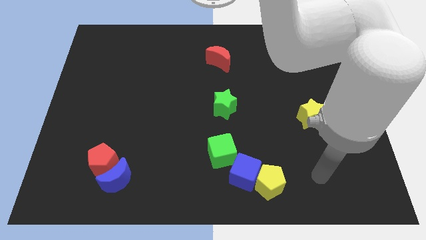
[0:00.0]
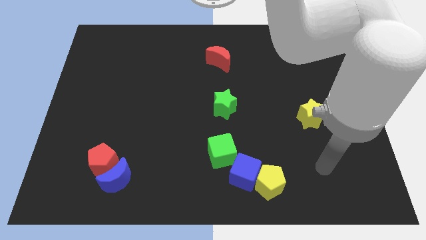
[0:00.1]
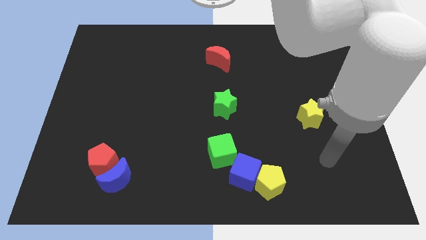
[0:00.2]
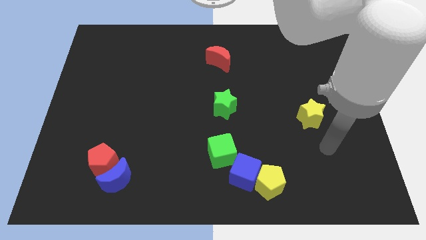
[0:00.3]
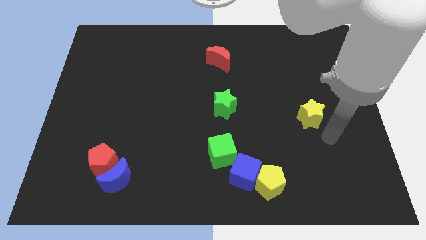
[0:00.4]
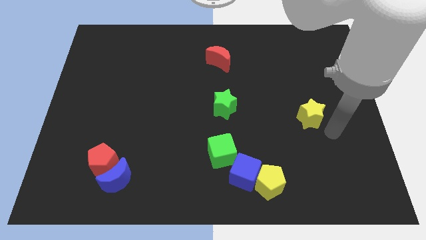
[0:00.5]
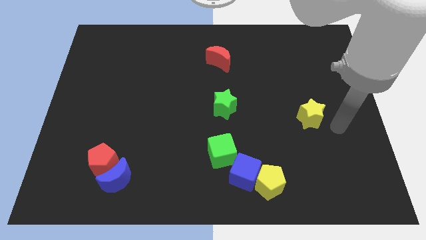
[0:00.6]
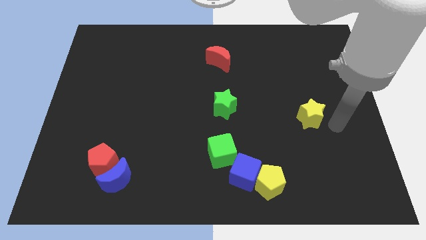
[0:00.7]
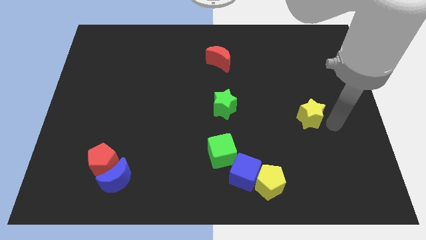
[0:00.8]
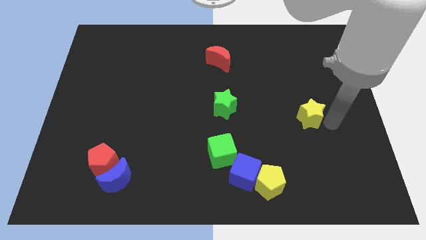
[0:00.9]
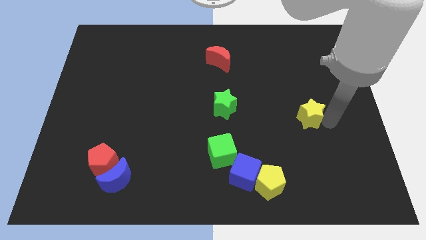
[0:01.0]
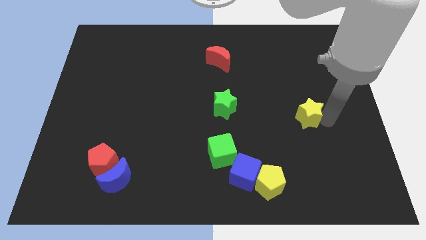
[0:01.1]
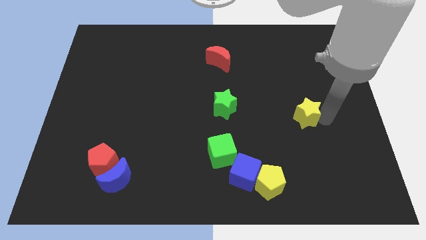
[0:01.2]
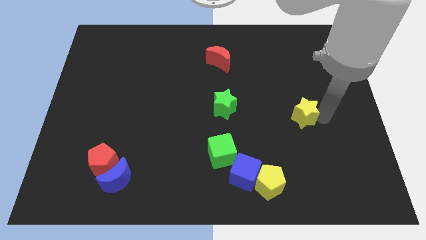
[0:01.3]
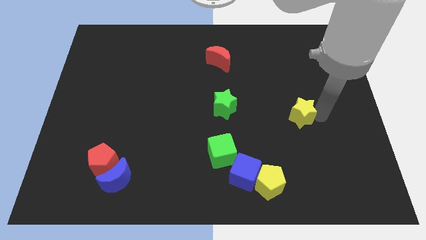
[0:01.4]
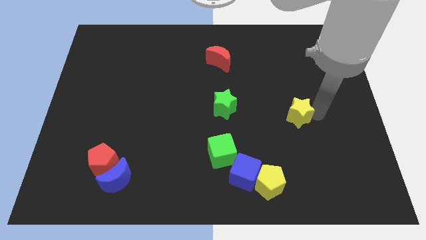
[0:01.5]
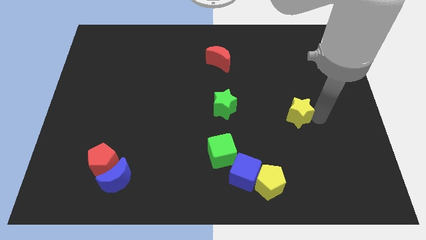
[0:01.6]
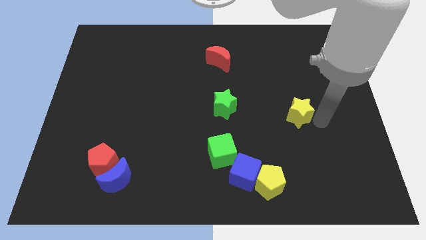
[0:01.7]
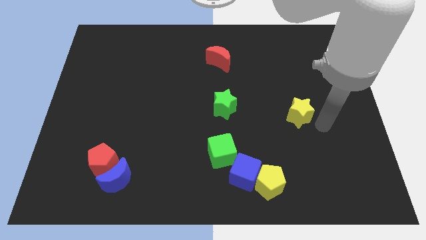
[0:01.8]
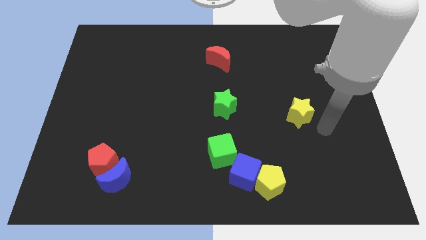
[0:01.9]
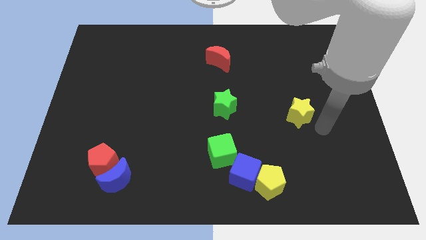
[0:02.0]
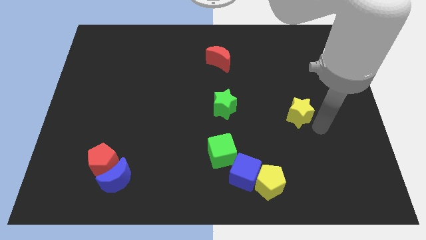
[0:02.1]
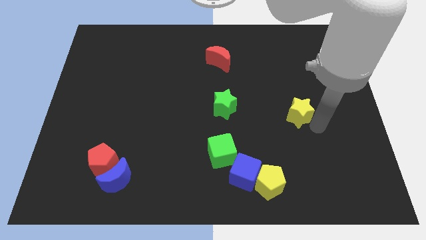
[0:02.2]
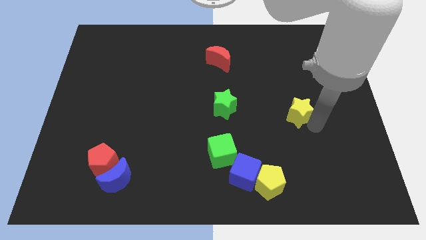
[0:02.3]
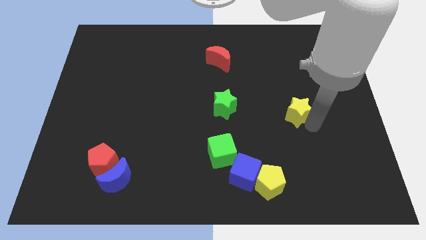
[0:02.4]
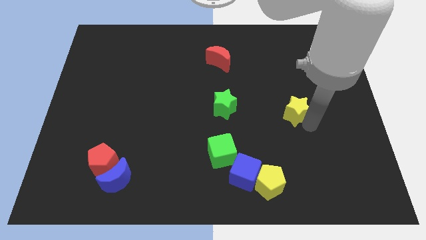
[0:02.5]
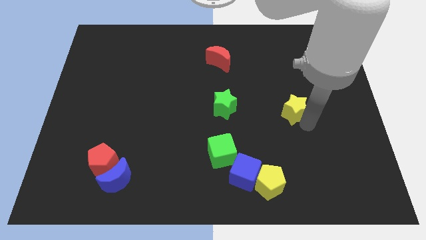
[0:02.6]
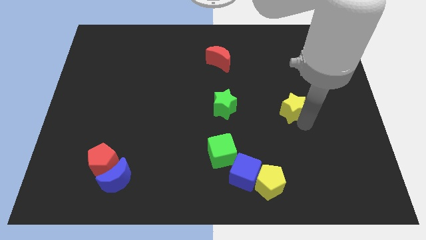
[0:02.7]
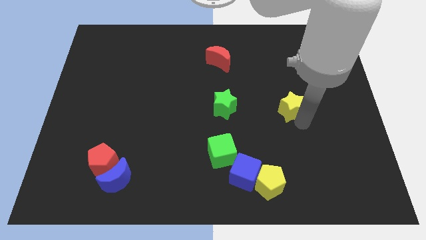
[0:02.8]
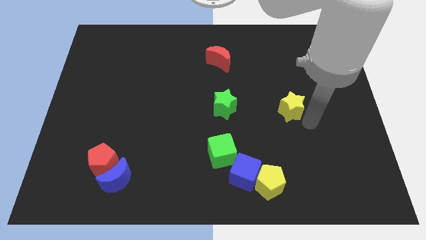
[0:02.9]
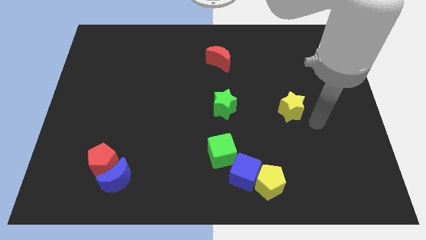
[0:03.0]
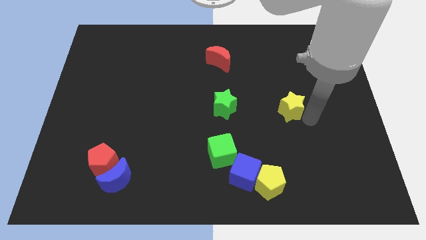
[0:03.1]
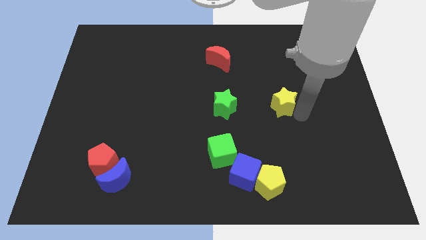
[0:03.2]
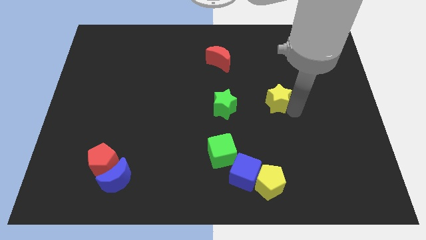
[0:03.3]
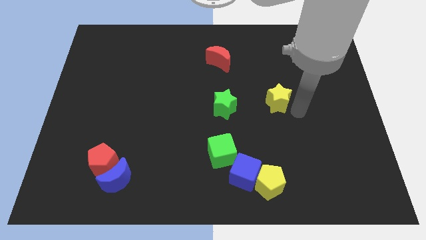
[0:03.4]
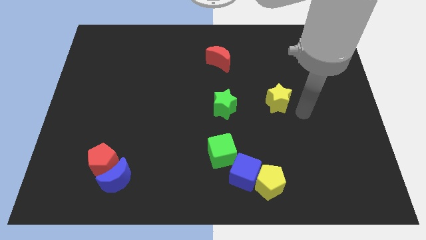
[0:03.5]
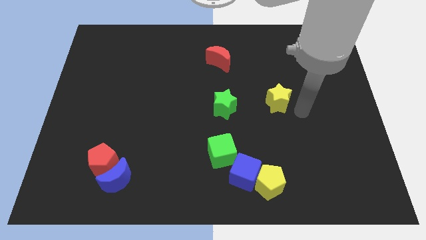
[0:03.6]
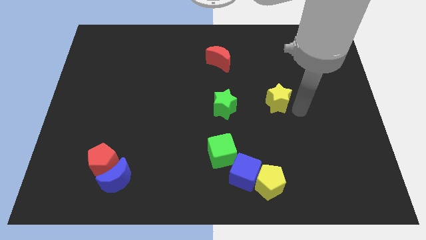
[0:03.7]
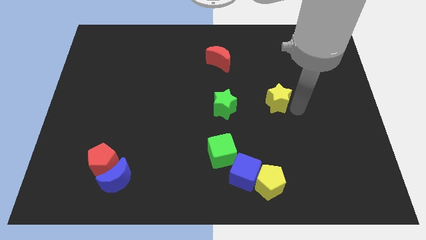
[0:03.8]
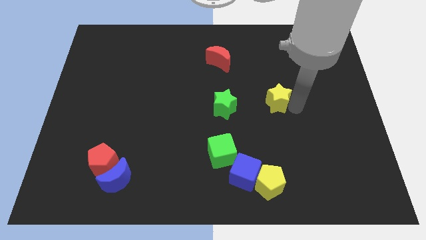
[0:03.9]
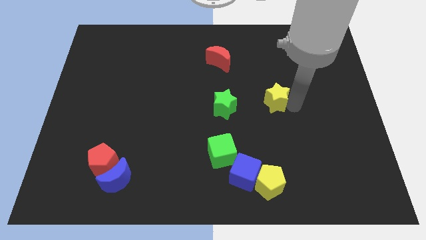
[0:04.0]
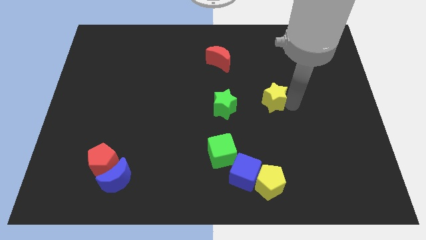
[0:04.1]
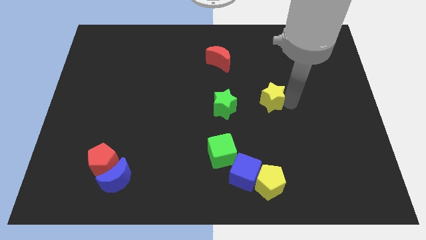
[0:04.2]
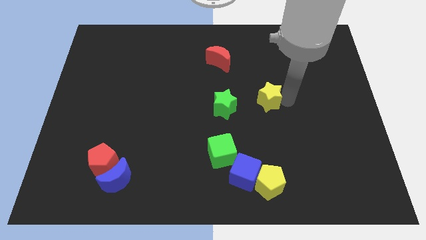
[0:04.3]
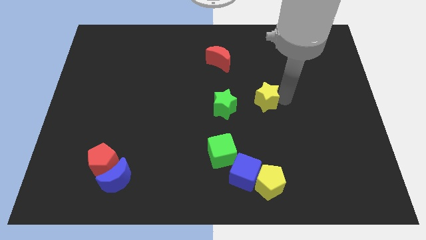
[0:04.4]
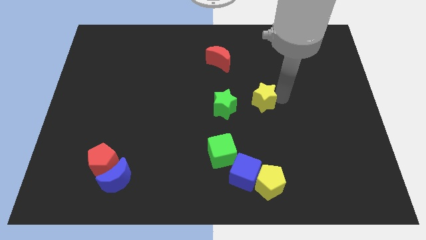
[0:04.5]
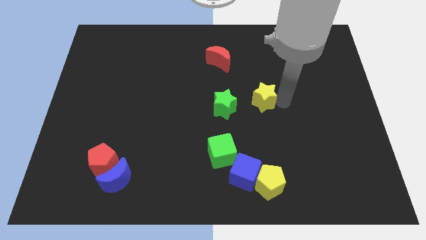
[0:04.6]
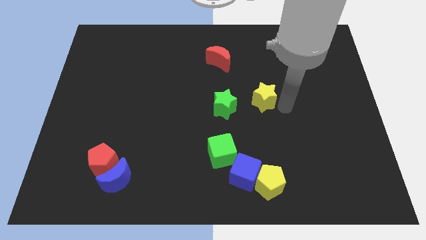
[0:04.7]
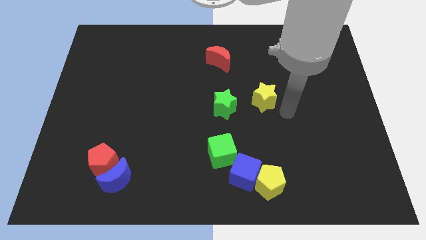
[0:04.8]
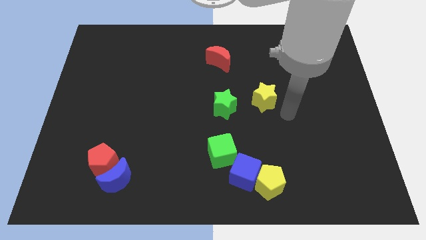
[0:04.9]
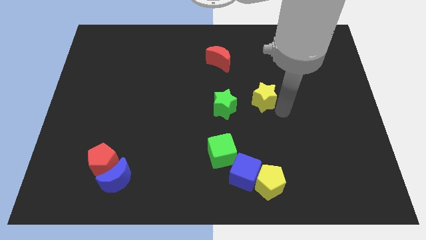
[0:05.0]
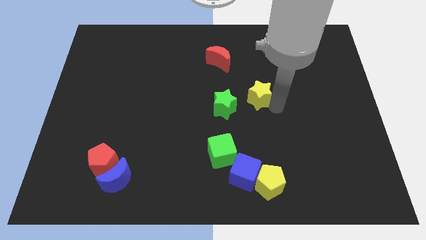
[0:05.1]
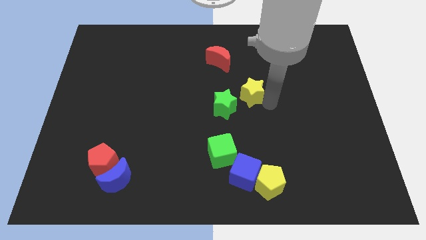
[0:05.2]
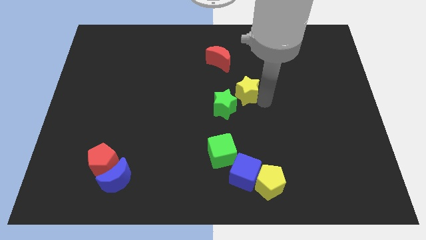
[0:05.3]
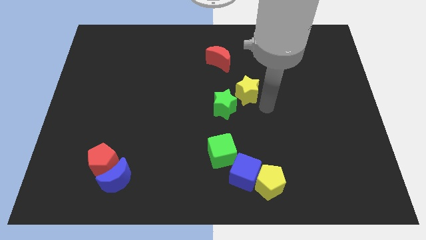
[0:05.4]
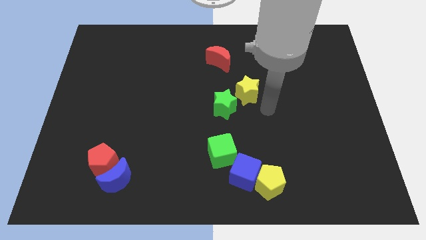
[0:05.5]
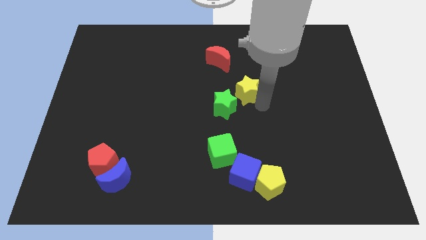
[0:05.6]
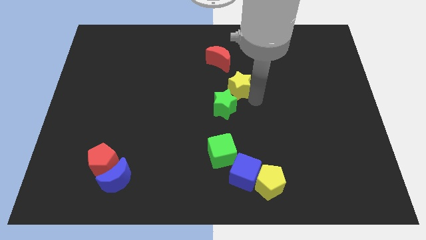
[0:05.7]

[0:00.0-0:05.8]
slide the yellow star to the top side of the green star

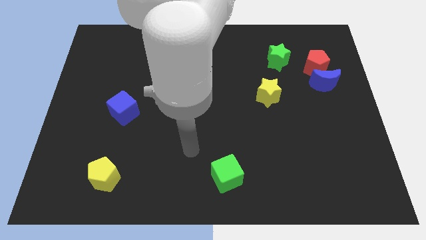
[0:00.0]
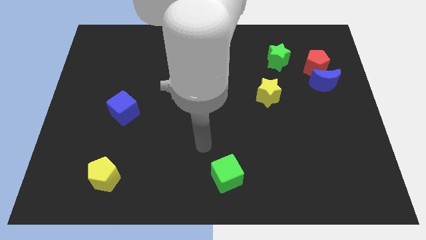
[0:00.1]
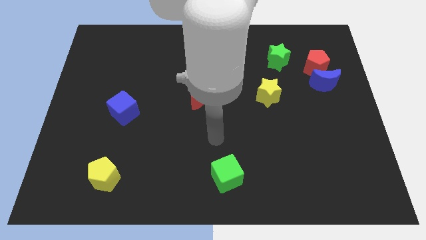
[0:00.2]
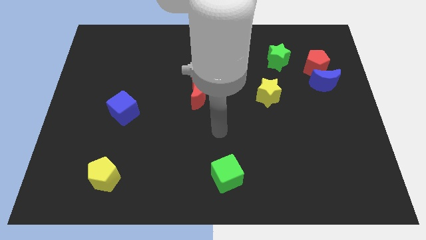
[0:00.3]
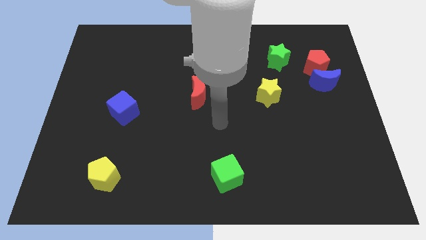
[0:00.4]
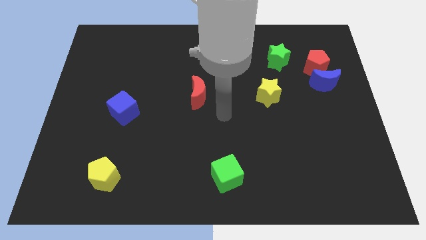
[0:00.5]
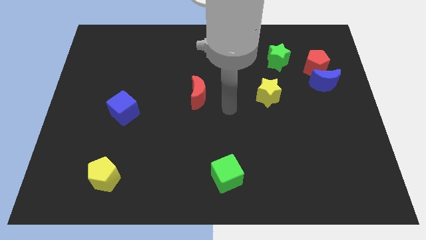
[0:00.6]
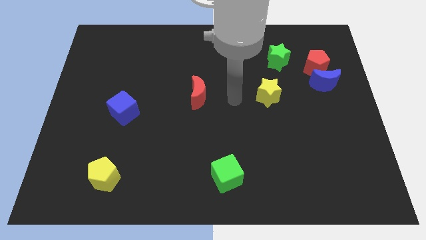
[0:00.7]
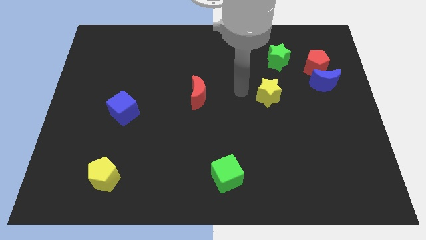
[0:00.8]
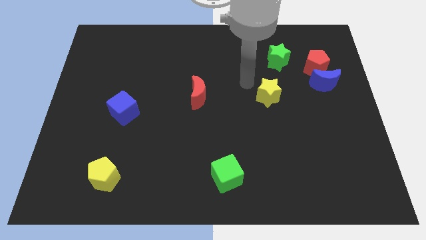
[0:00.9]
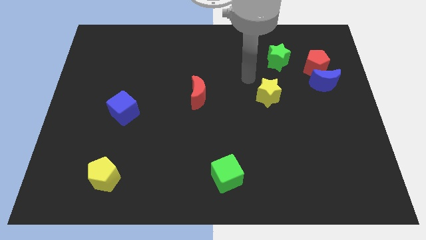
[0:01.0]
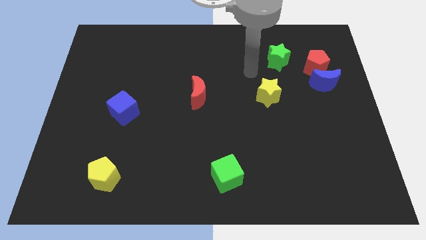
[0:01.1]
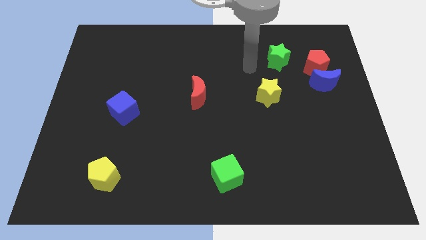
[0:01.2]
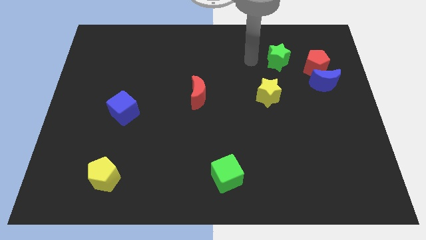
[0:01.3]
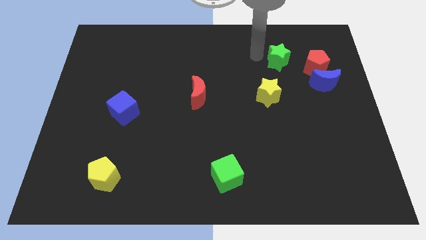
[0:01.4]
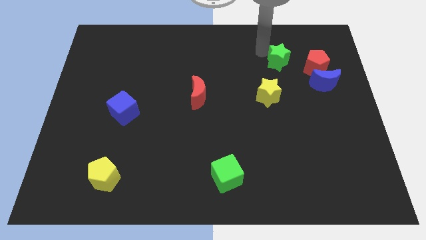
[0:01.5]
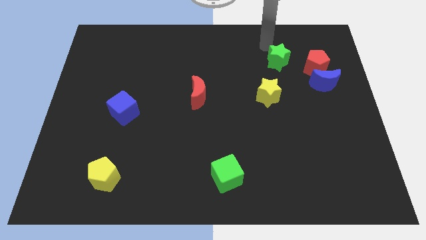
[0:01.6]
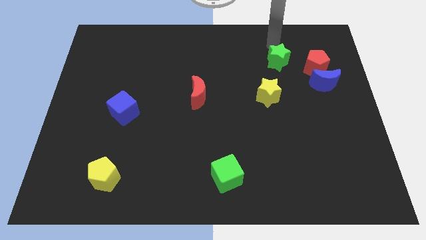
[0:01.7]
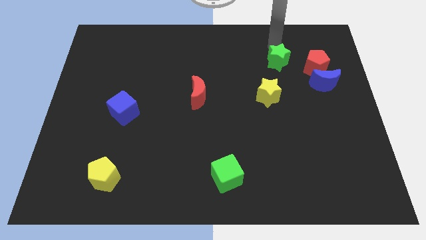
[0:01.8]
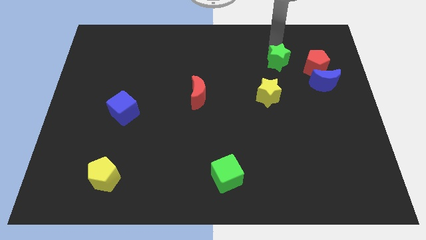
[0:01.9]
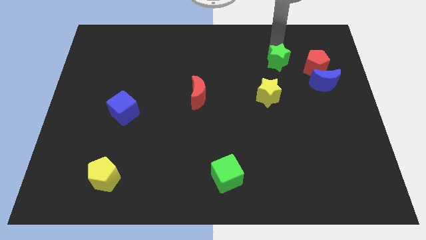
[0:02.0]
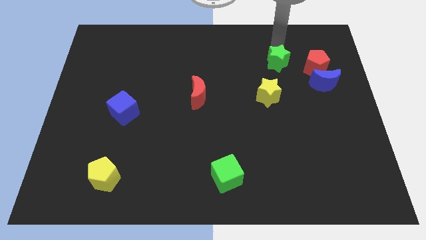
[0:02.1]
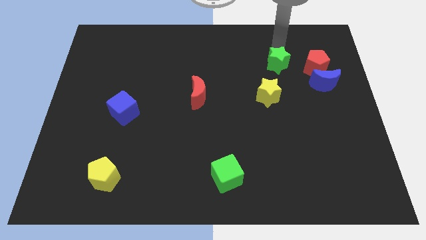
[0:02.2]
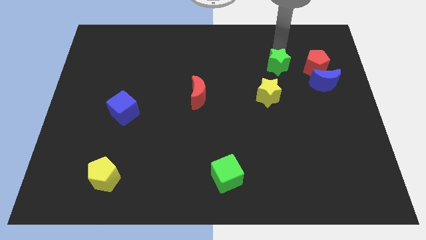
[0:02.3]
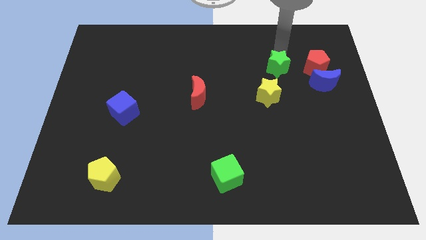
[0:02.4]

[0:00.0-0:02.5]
push the green star to the top right of the yellow star
